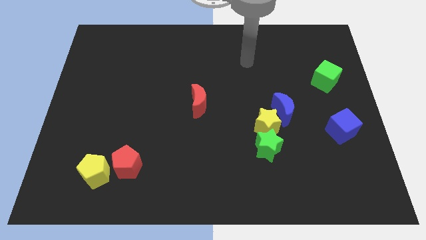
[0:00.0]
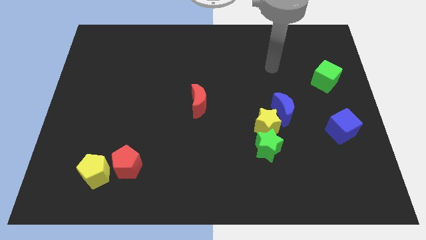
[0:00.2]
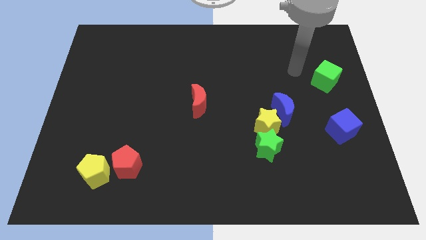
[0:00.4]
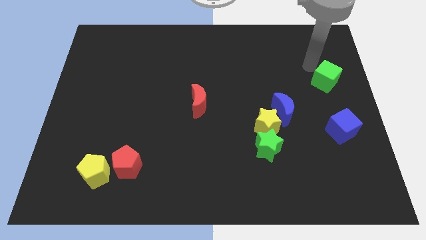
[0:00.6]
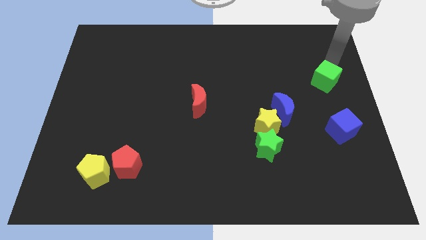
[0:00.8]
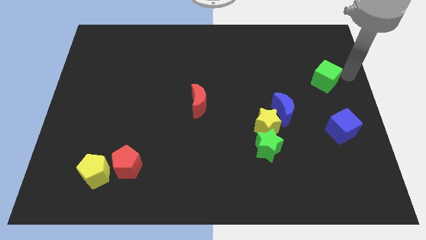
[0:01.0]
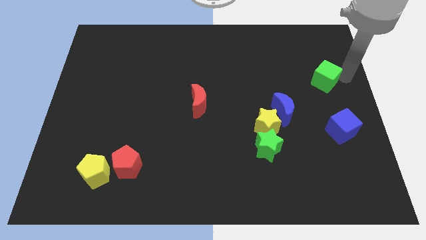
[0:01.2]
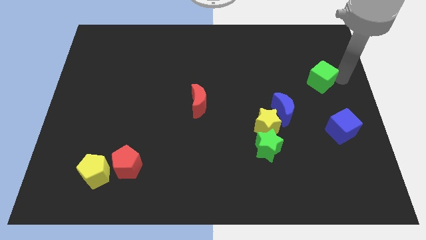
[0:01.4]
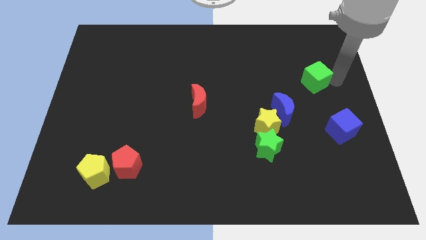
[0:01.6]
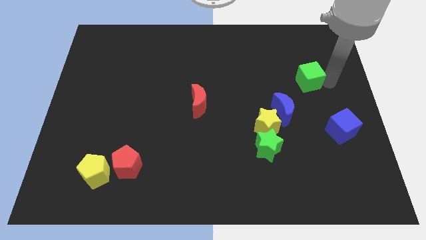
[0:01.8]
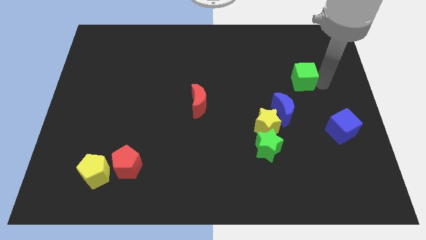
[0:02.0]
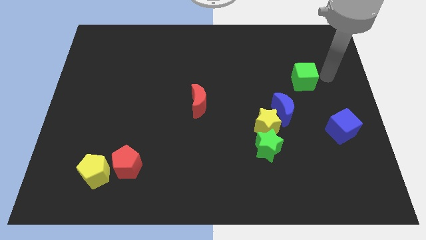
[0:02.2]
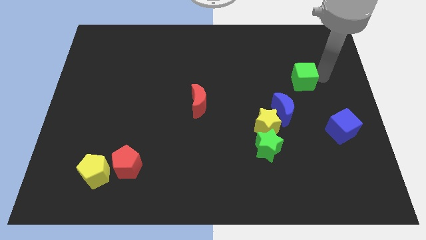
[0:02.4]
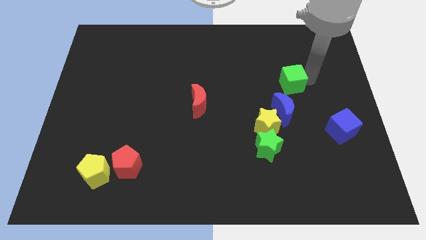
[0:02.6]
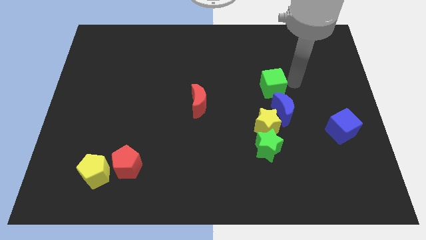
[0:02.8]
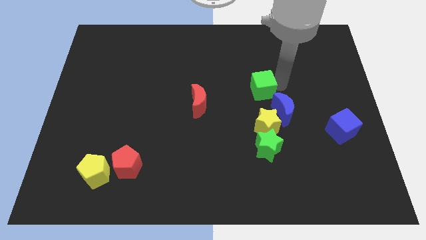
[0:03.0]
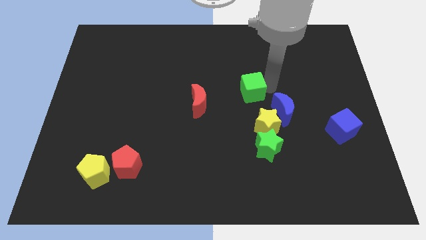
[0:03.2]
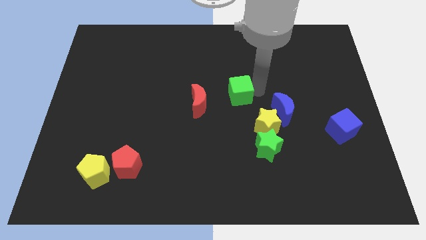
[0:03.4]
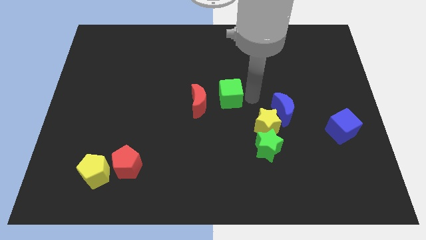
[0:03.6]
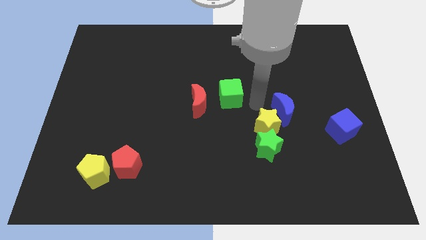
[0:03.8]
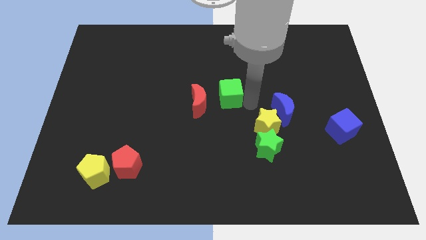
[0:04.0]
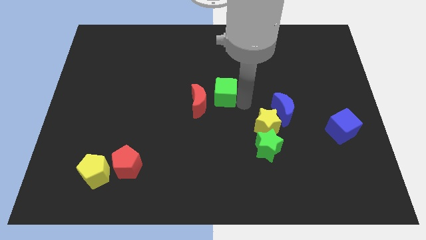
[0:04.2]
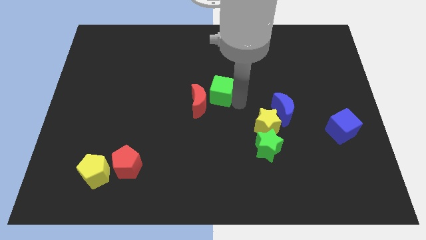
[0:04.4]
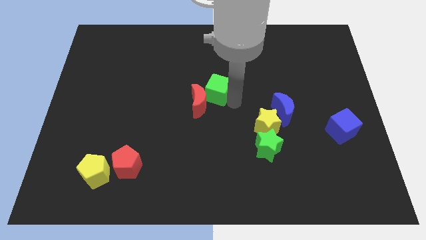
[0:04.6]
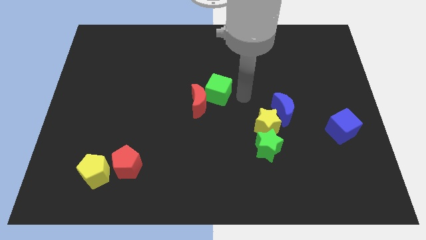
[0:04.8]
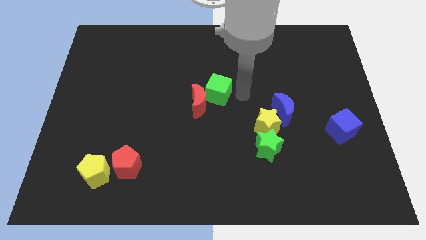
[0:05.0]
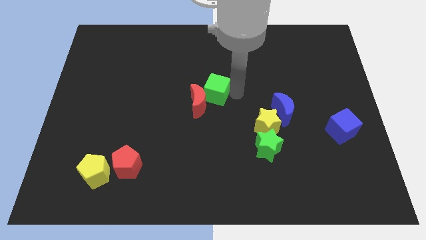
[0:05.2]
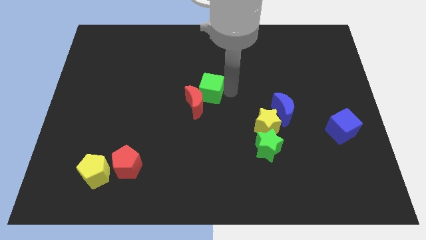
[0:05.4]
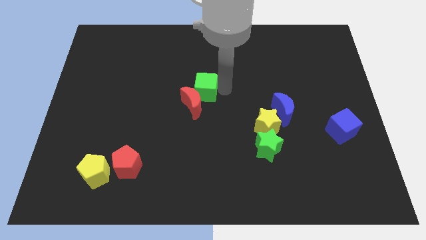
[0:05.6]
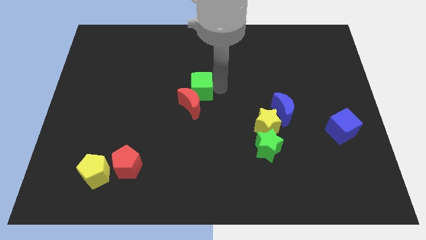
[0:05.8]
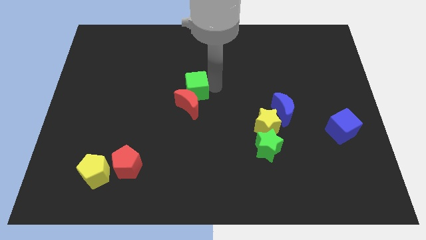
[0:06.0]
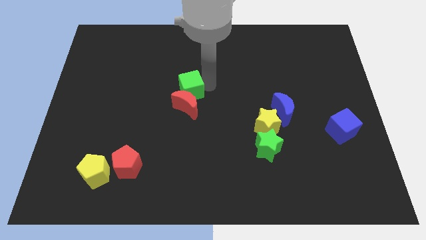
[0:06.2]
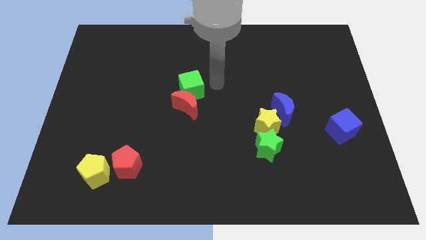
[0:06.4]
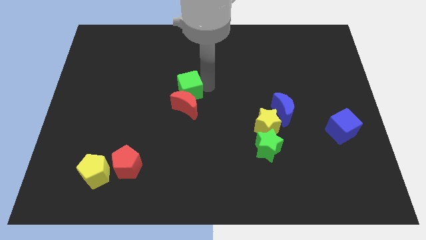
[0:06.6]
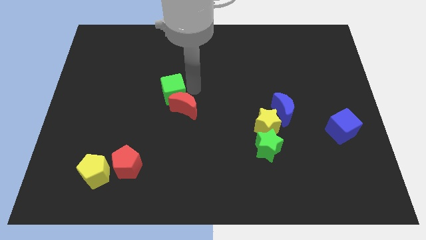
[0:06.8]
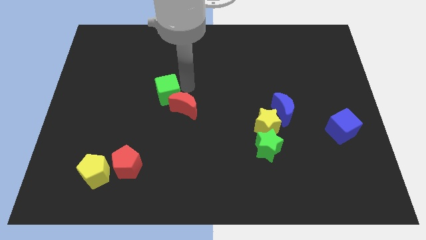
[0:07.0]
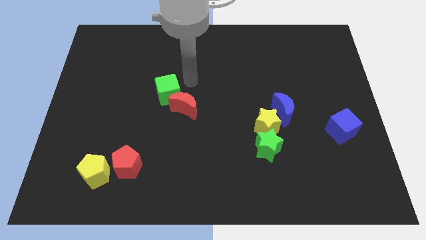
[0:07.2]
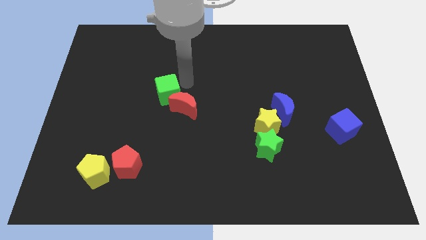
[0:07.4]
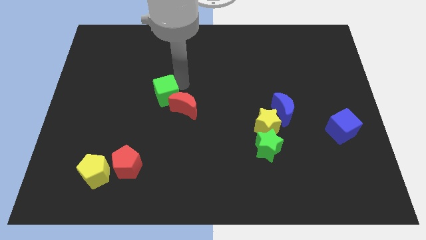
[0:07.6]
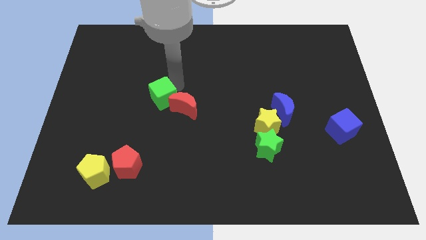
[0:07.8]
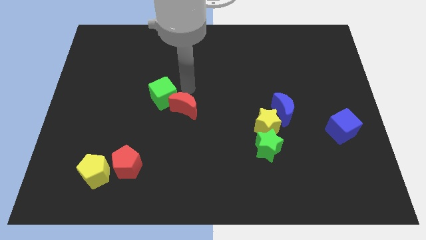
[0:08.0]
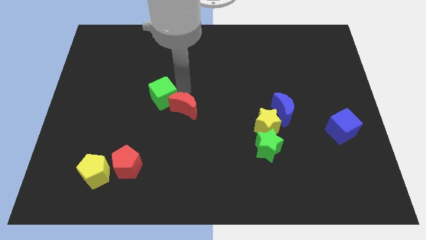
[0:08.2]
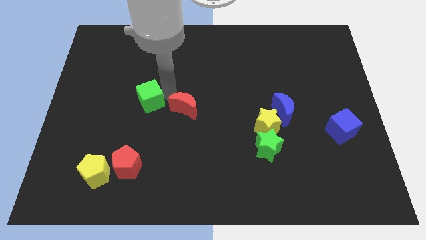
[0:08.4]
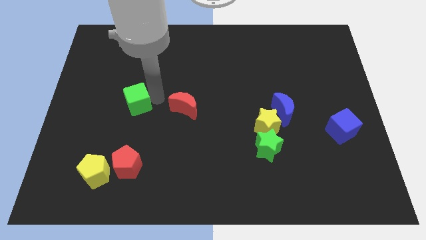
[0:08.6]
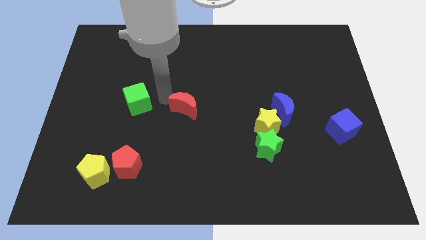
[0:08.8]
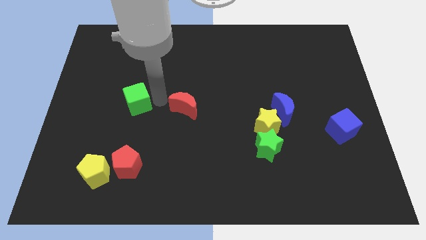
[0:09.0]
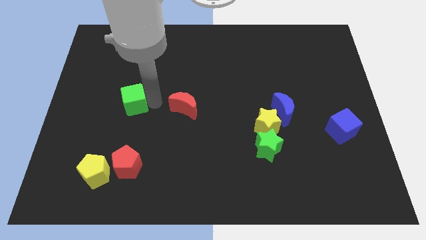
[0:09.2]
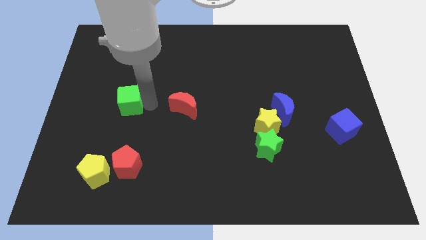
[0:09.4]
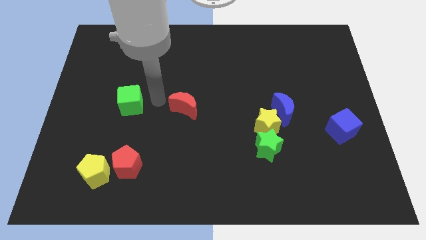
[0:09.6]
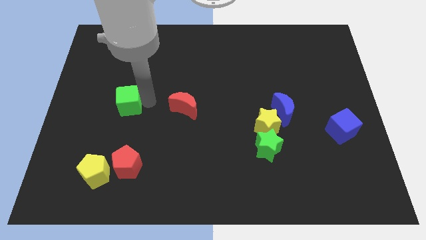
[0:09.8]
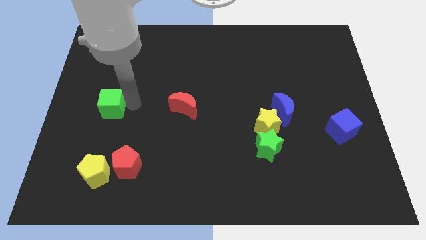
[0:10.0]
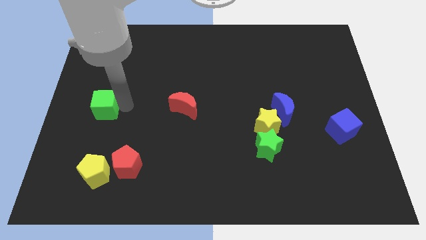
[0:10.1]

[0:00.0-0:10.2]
push the green cube to the left side
